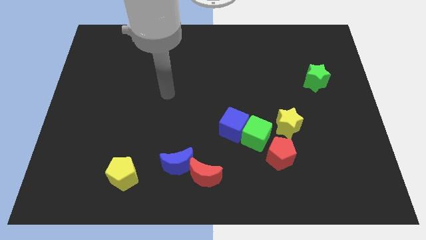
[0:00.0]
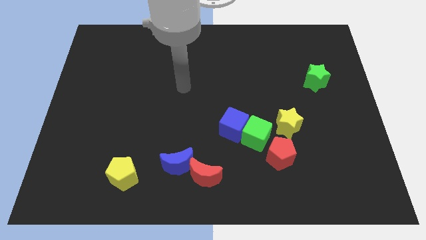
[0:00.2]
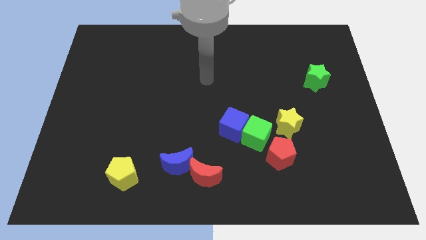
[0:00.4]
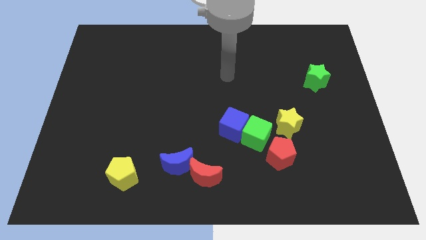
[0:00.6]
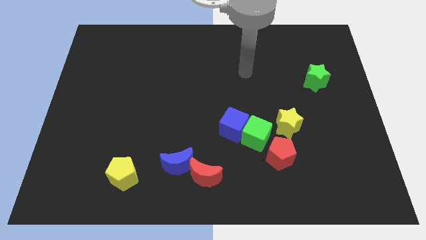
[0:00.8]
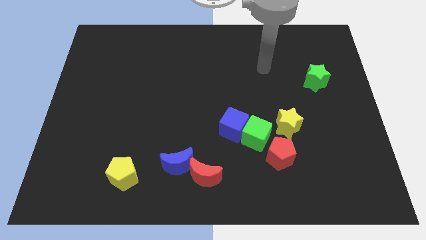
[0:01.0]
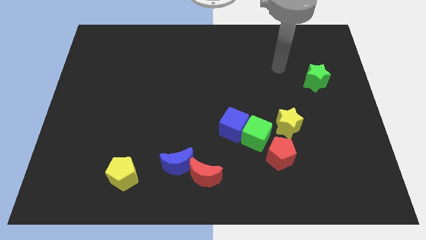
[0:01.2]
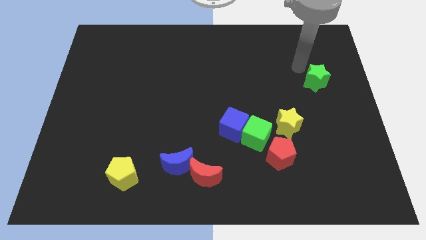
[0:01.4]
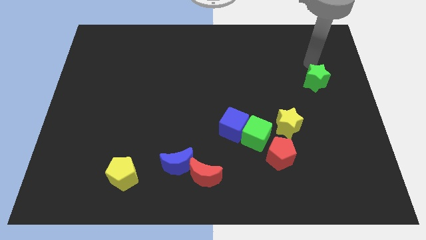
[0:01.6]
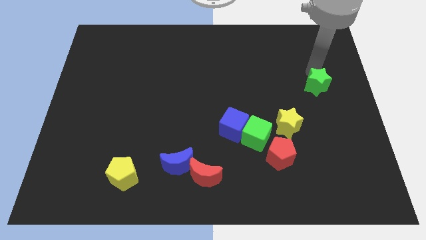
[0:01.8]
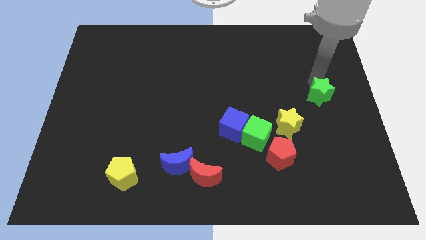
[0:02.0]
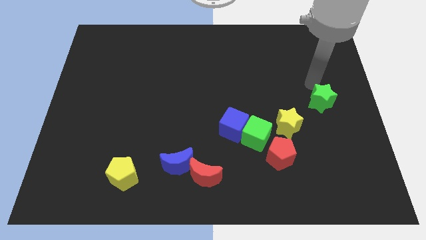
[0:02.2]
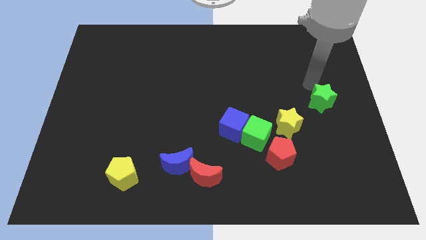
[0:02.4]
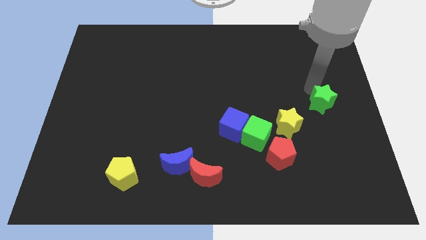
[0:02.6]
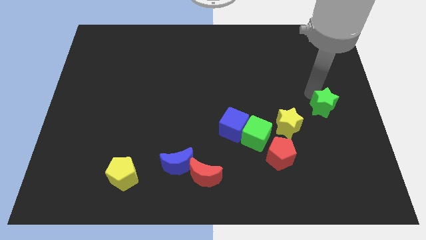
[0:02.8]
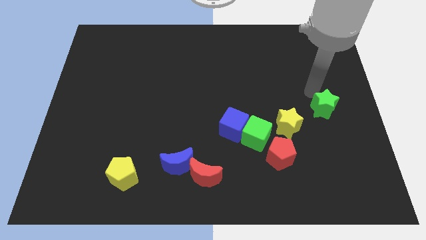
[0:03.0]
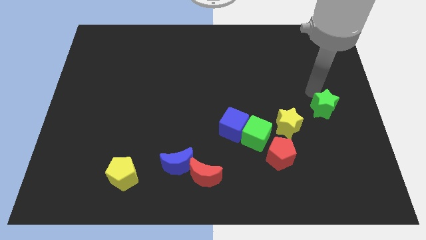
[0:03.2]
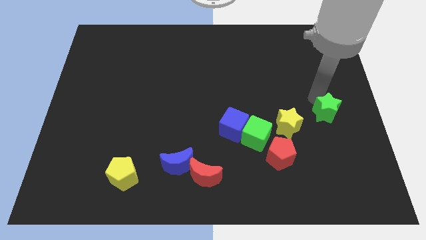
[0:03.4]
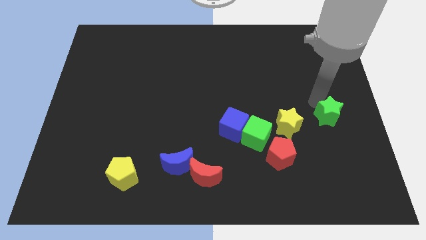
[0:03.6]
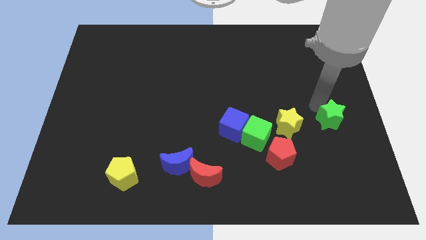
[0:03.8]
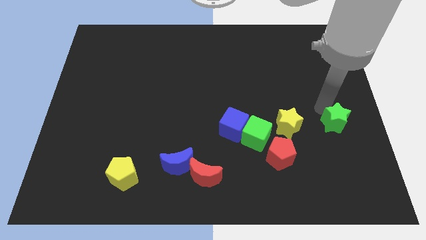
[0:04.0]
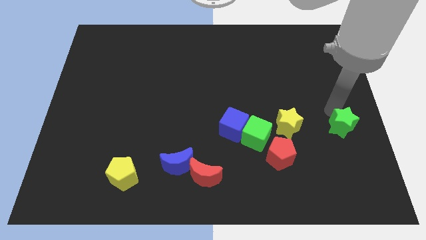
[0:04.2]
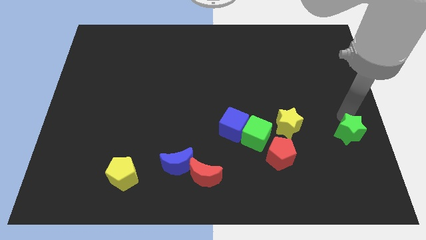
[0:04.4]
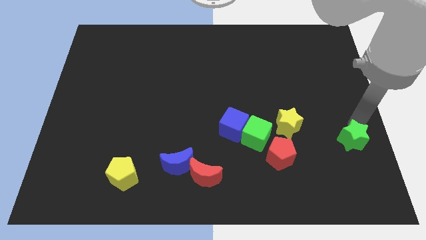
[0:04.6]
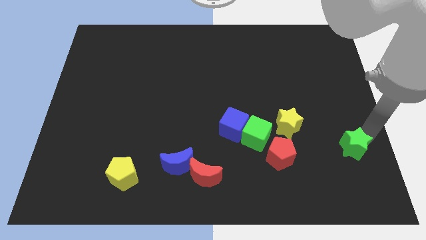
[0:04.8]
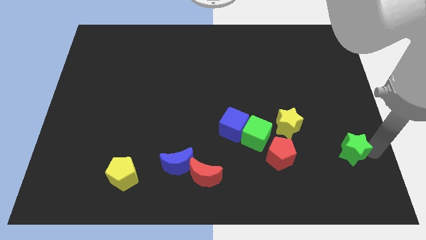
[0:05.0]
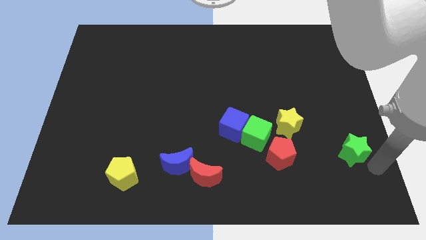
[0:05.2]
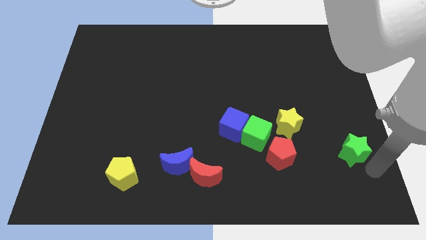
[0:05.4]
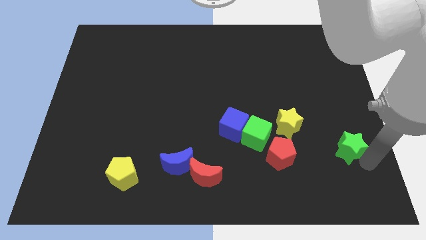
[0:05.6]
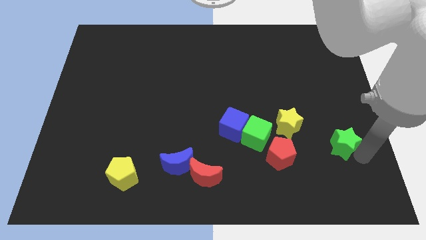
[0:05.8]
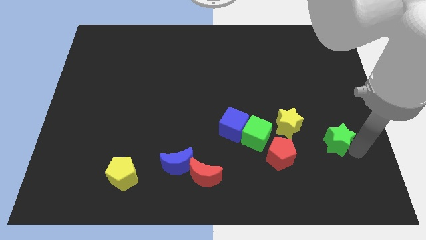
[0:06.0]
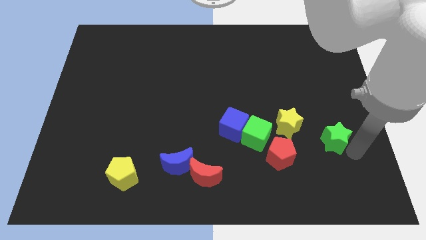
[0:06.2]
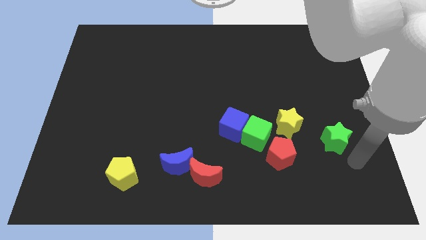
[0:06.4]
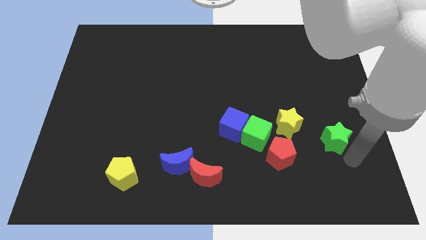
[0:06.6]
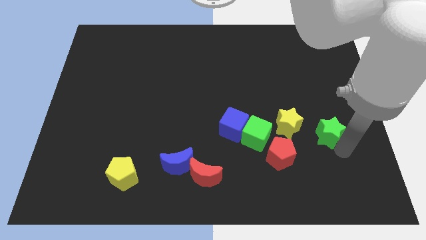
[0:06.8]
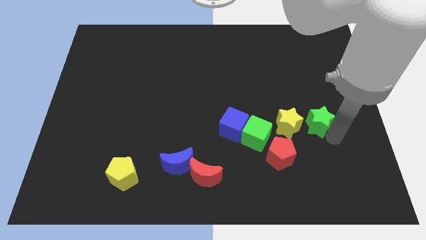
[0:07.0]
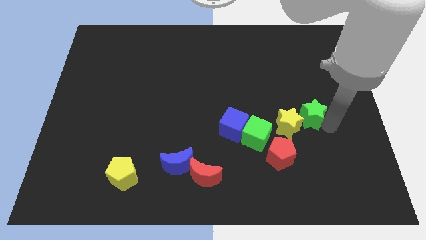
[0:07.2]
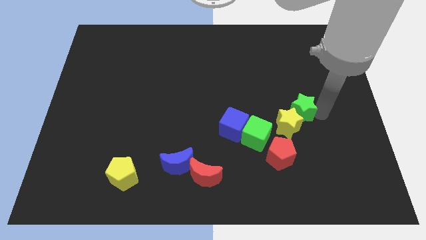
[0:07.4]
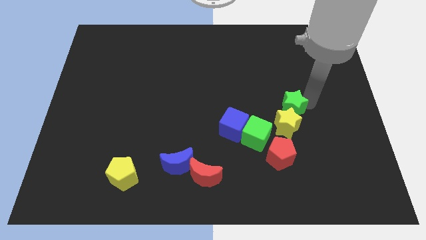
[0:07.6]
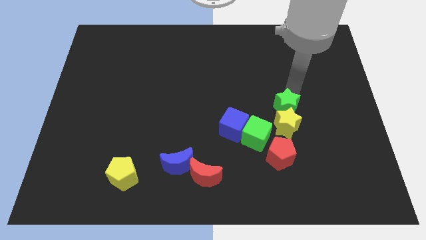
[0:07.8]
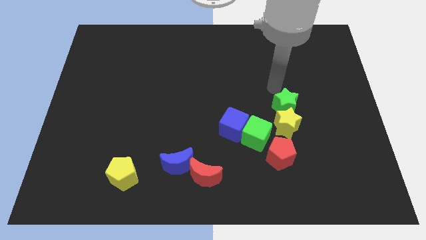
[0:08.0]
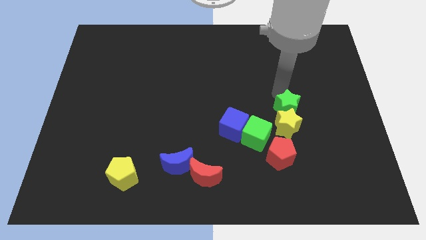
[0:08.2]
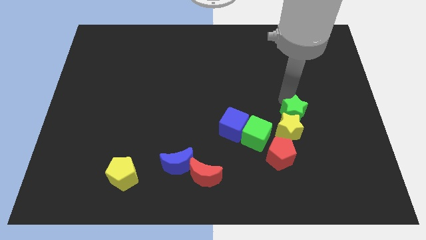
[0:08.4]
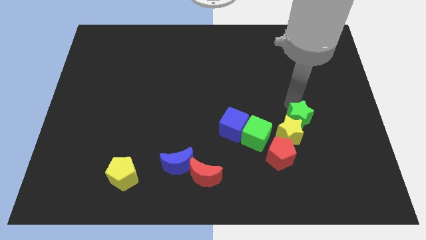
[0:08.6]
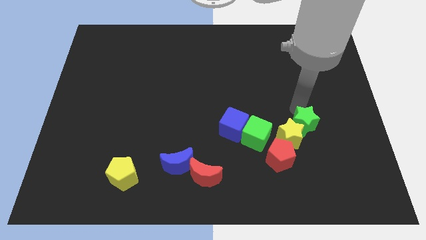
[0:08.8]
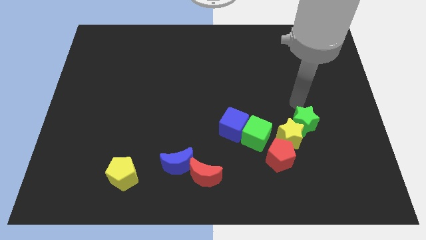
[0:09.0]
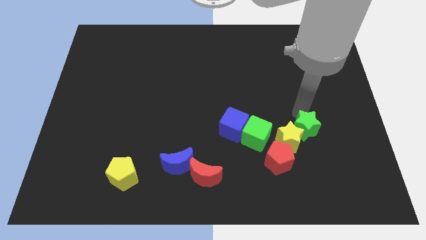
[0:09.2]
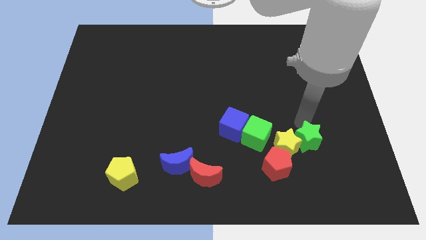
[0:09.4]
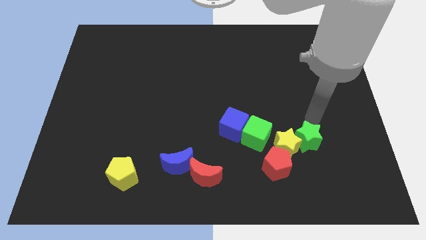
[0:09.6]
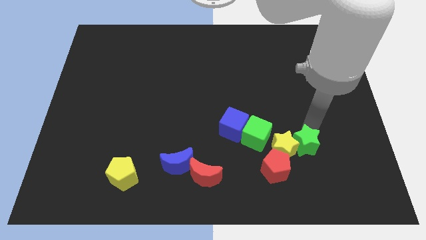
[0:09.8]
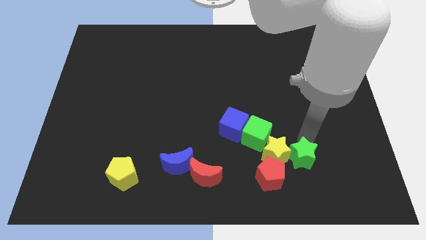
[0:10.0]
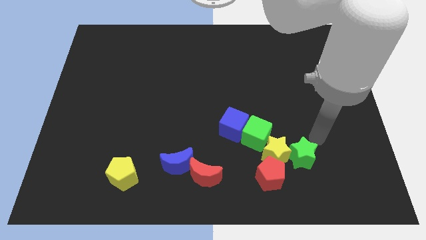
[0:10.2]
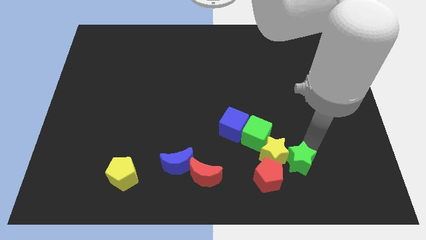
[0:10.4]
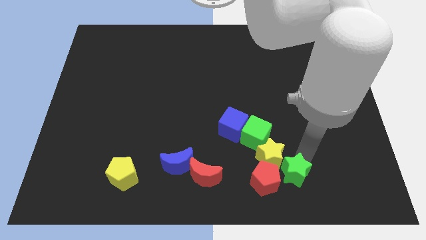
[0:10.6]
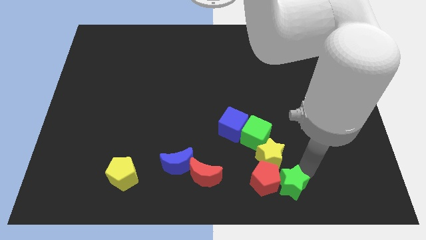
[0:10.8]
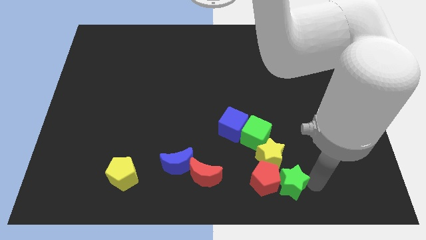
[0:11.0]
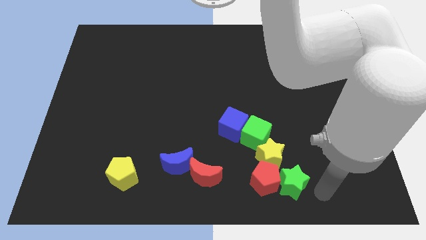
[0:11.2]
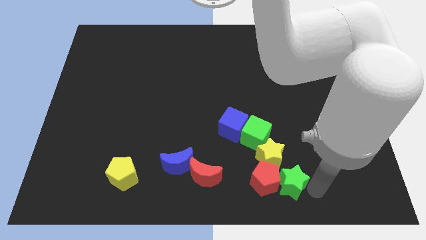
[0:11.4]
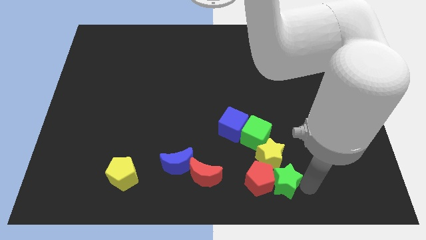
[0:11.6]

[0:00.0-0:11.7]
push the green star to the right of the red moon

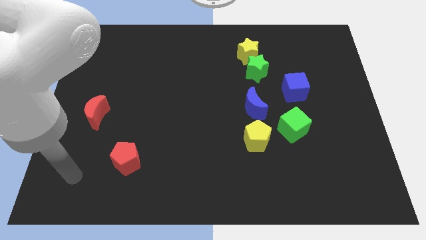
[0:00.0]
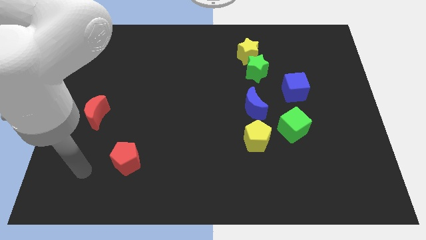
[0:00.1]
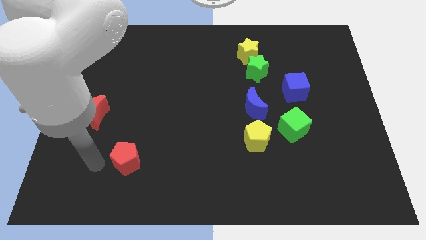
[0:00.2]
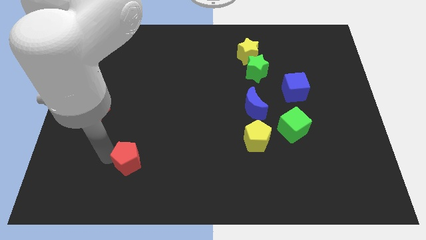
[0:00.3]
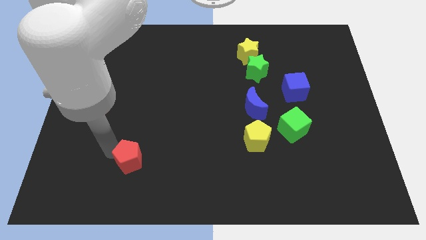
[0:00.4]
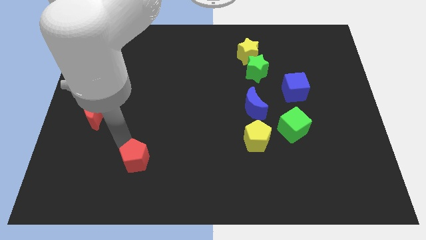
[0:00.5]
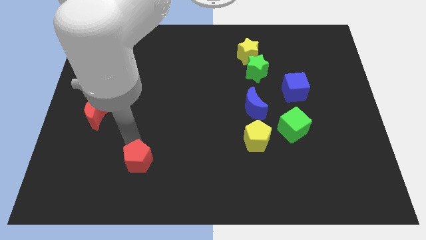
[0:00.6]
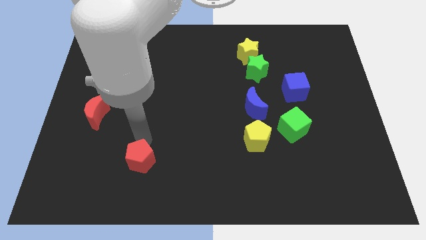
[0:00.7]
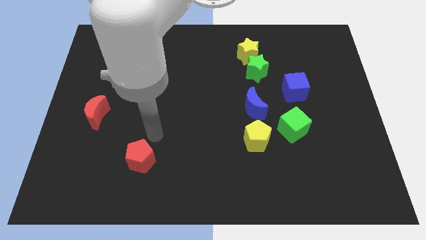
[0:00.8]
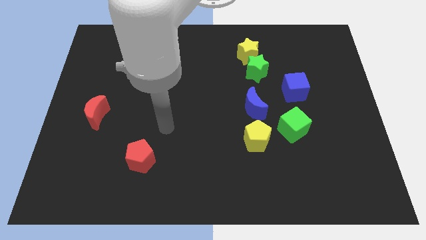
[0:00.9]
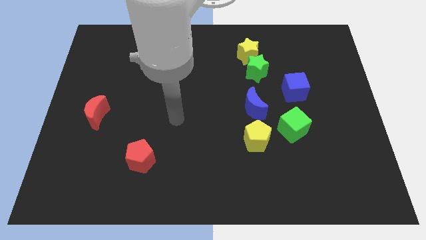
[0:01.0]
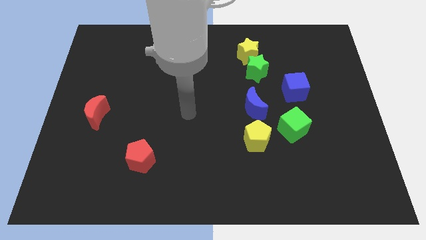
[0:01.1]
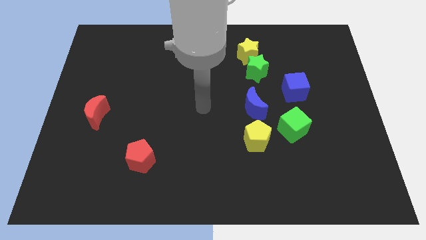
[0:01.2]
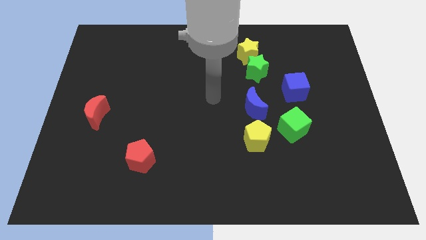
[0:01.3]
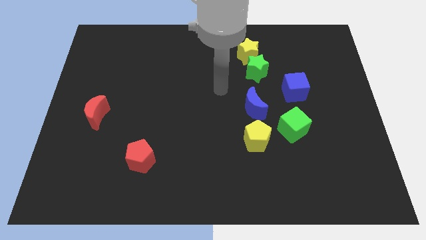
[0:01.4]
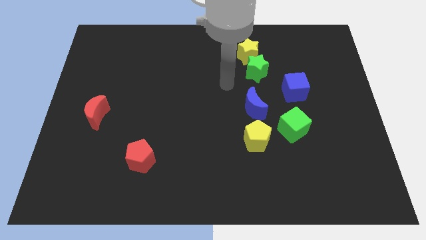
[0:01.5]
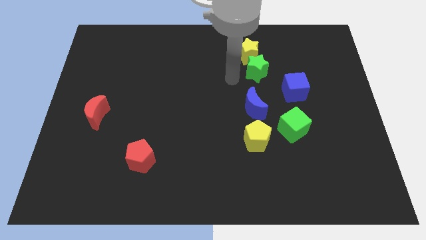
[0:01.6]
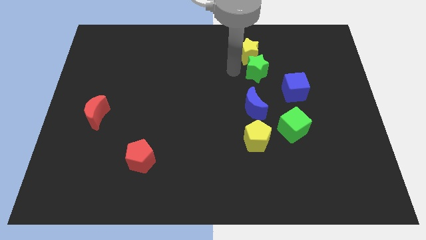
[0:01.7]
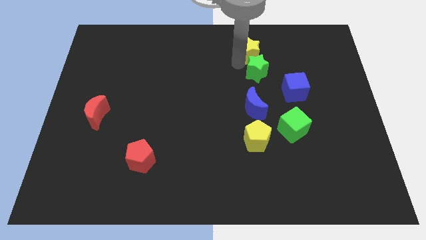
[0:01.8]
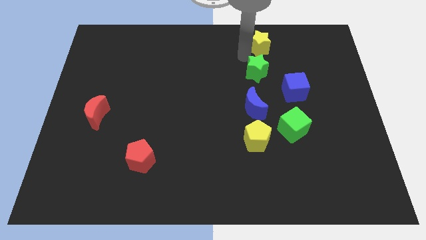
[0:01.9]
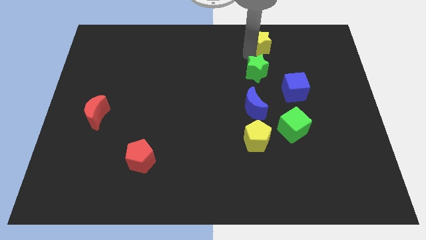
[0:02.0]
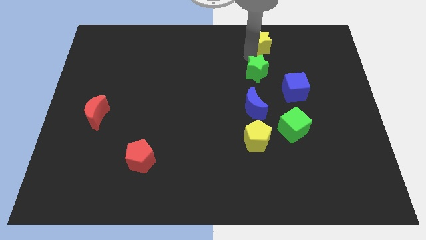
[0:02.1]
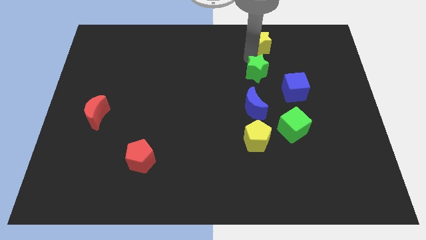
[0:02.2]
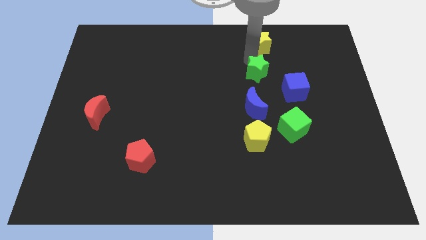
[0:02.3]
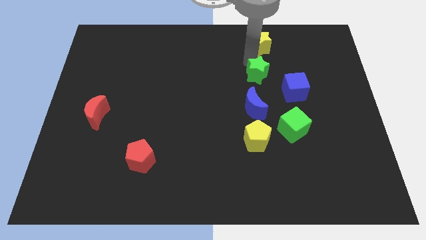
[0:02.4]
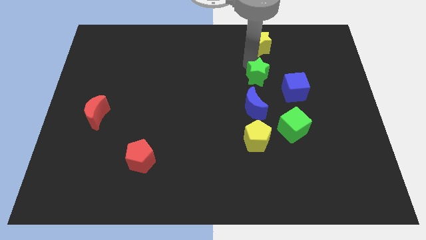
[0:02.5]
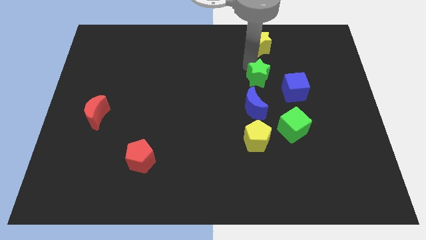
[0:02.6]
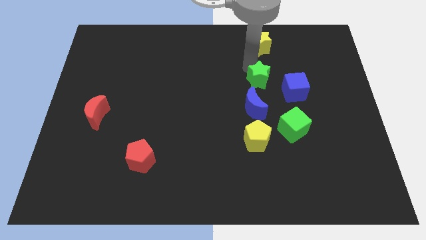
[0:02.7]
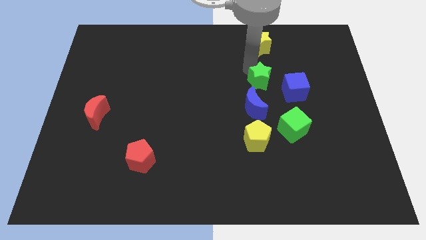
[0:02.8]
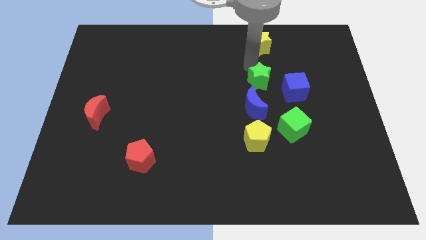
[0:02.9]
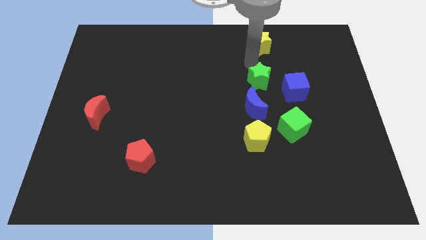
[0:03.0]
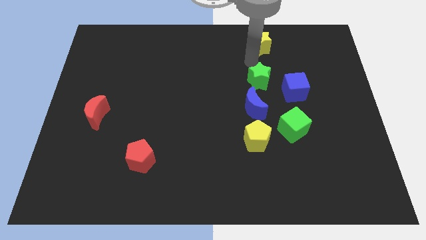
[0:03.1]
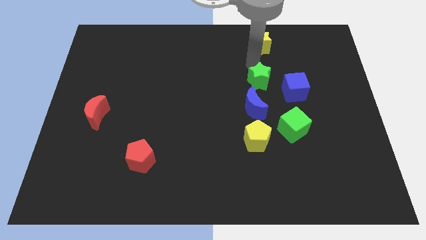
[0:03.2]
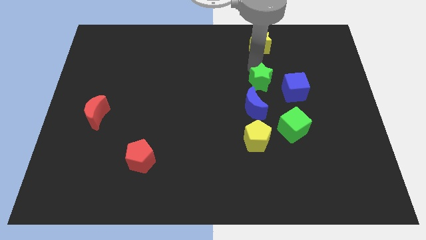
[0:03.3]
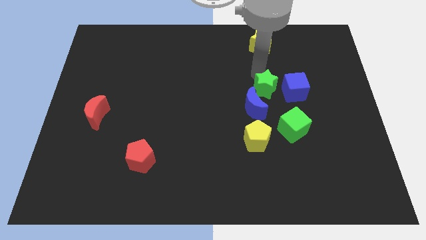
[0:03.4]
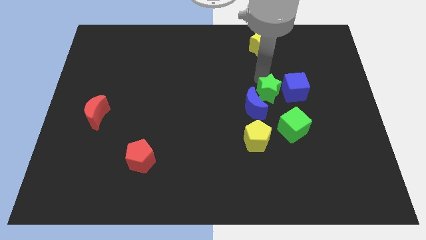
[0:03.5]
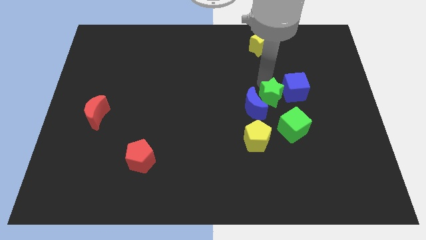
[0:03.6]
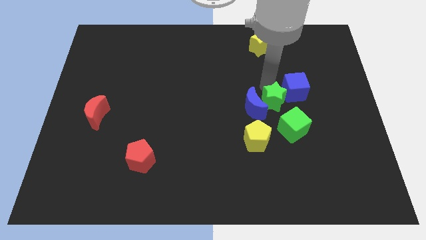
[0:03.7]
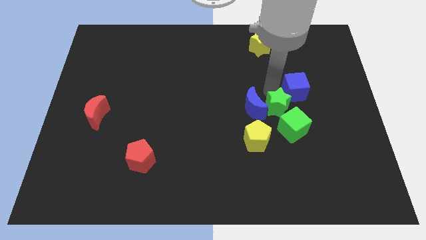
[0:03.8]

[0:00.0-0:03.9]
push the green star diagonally up and to the right of the yellow pentagon
